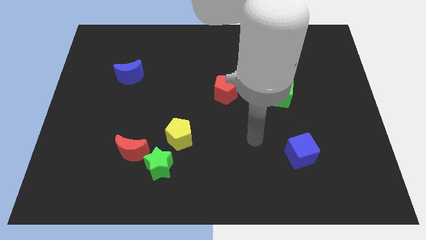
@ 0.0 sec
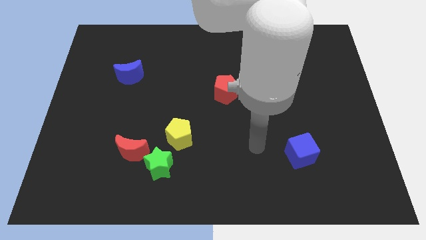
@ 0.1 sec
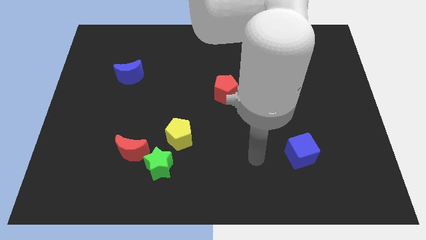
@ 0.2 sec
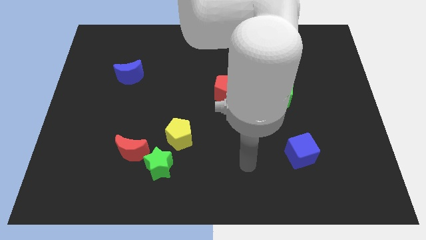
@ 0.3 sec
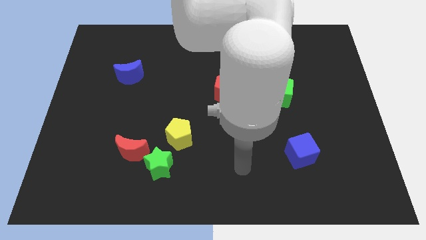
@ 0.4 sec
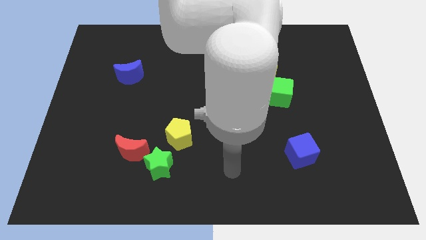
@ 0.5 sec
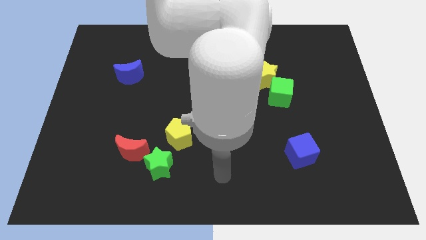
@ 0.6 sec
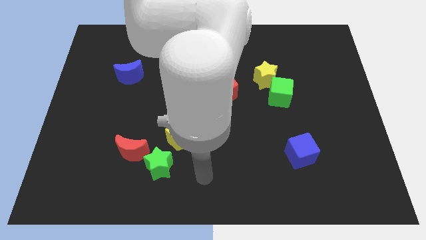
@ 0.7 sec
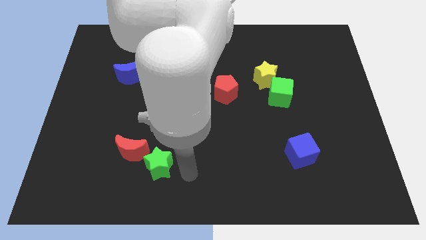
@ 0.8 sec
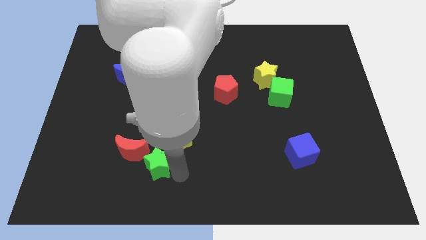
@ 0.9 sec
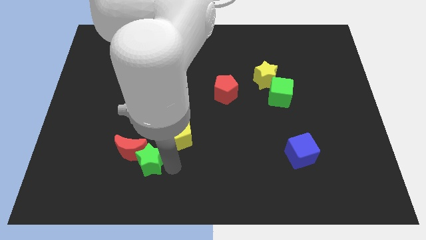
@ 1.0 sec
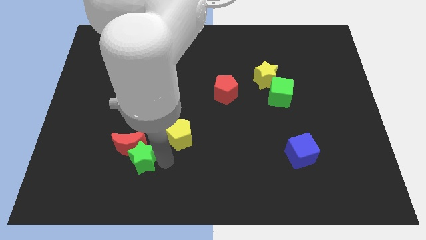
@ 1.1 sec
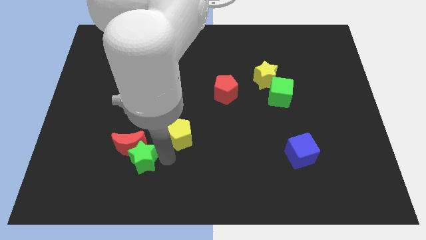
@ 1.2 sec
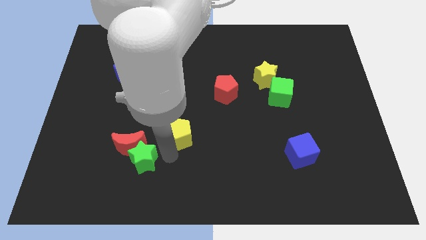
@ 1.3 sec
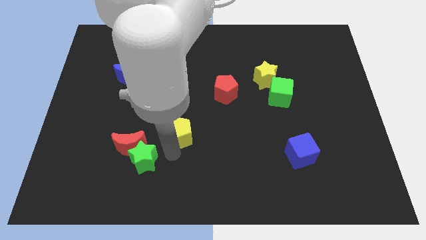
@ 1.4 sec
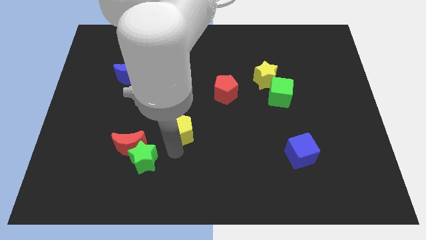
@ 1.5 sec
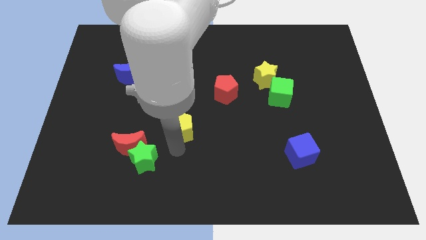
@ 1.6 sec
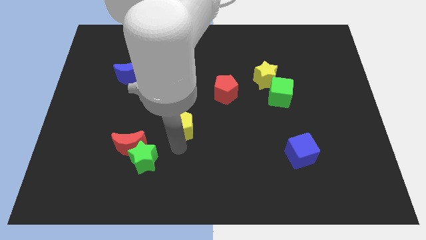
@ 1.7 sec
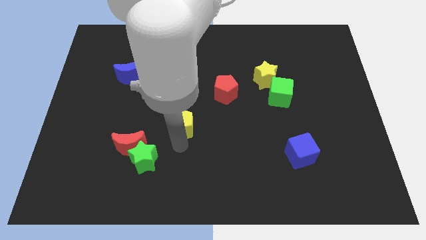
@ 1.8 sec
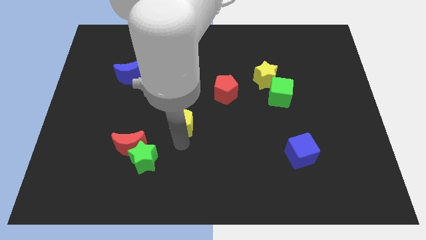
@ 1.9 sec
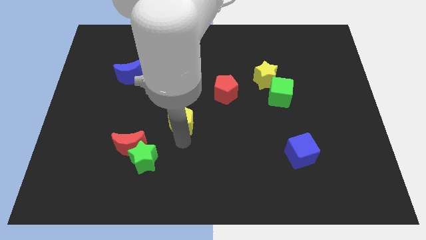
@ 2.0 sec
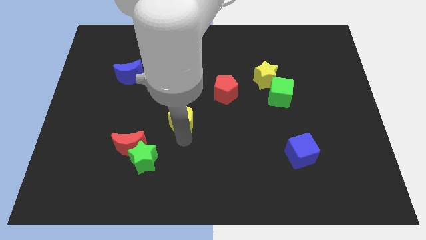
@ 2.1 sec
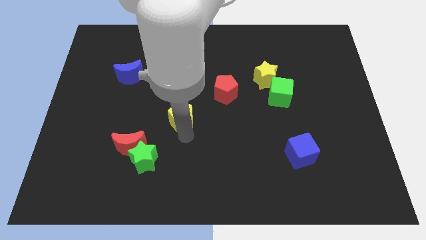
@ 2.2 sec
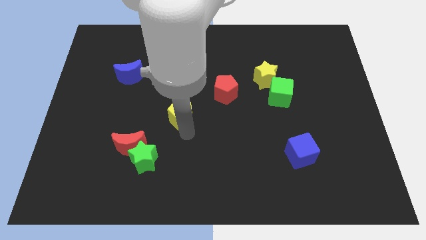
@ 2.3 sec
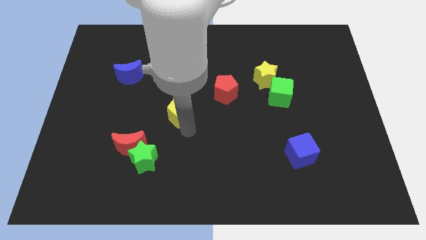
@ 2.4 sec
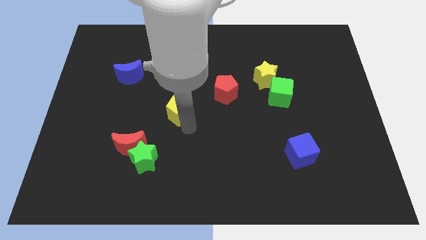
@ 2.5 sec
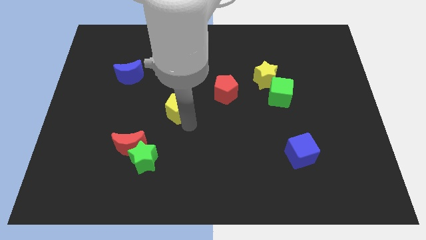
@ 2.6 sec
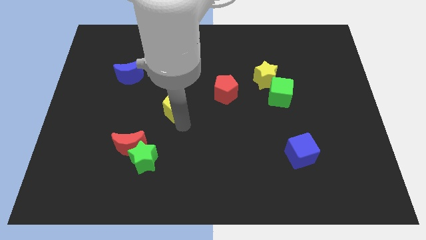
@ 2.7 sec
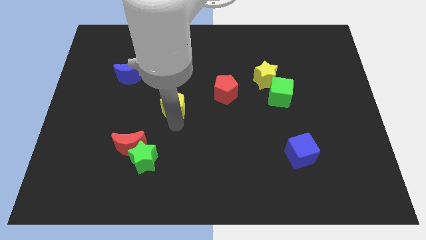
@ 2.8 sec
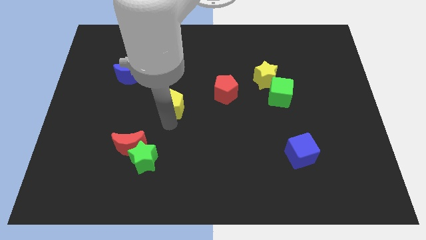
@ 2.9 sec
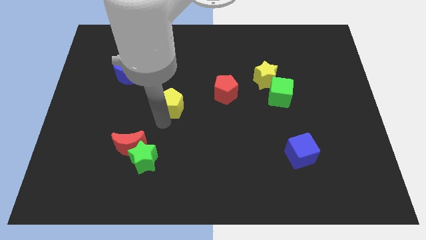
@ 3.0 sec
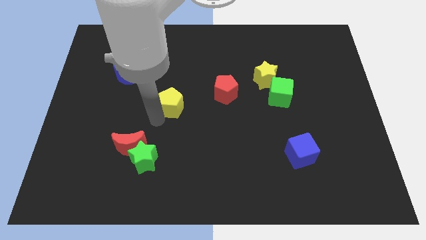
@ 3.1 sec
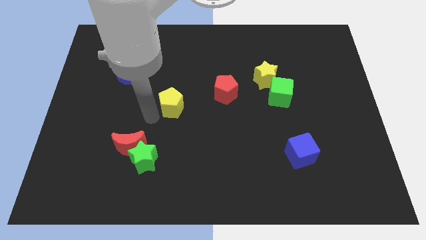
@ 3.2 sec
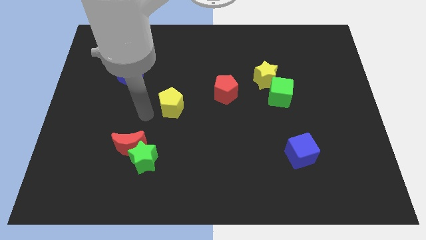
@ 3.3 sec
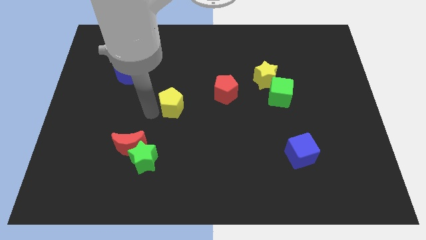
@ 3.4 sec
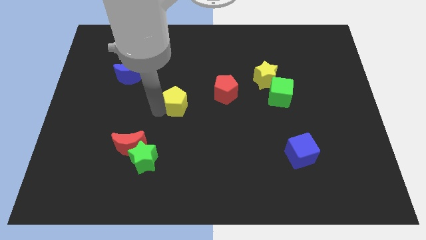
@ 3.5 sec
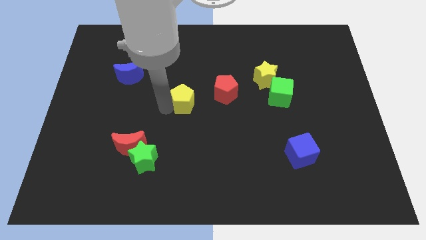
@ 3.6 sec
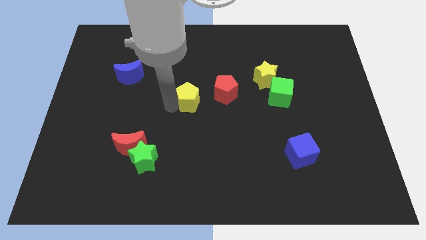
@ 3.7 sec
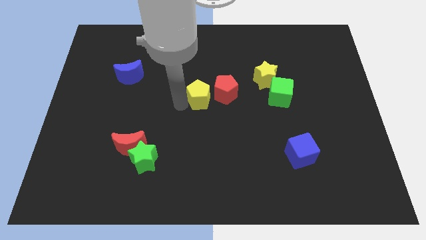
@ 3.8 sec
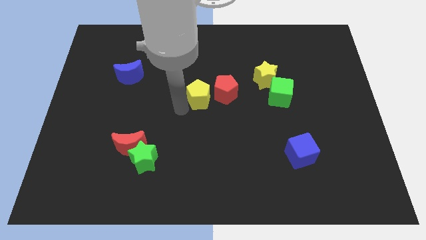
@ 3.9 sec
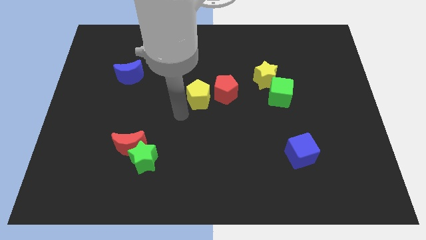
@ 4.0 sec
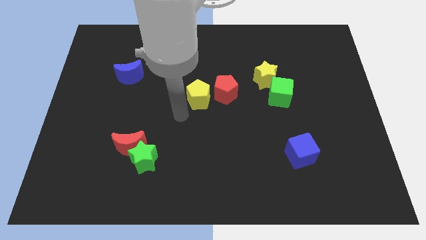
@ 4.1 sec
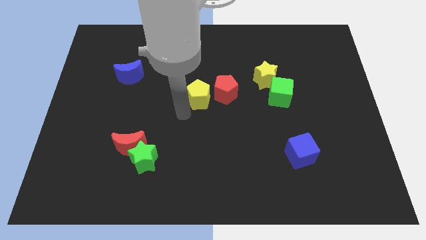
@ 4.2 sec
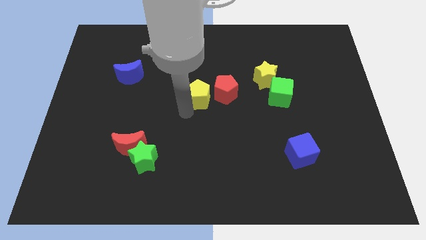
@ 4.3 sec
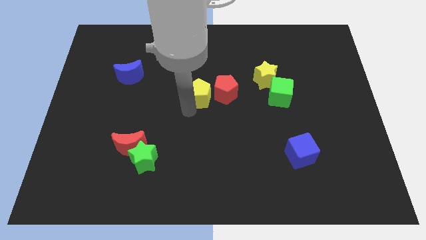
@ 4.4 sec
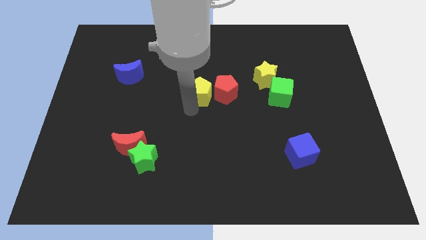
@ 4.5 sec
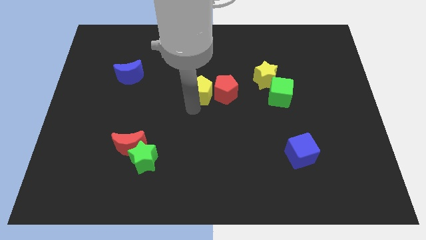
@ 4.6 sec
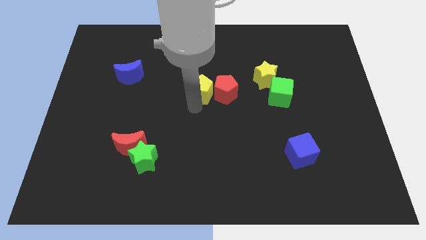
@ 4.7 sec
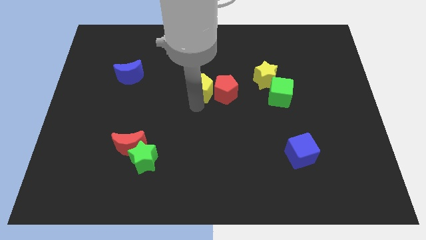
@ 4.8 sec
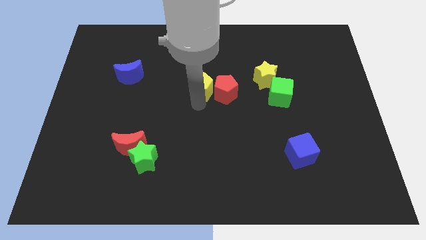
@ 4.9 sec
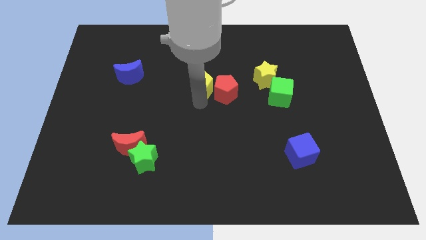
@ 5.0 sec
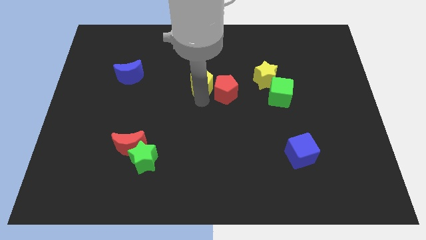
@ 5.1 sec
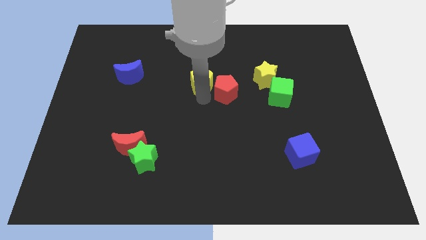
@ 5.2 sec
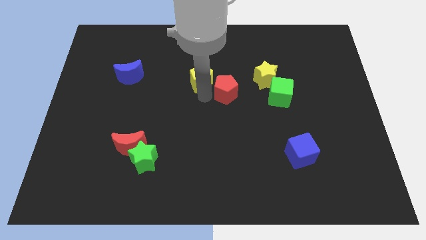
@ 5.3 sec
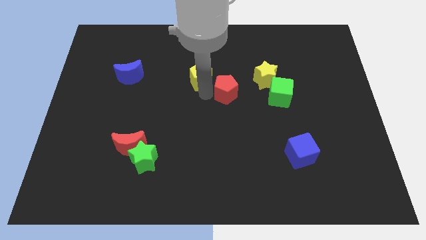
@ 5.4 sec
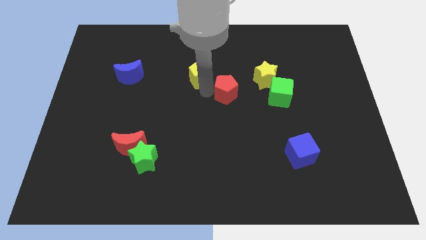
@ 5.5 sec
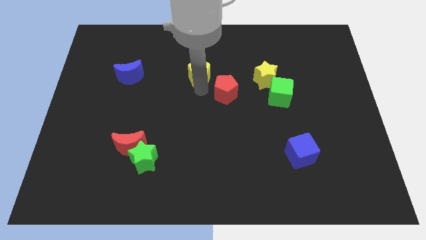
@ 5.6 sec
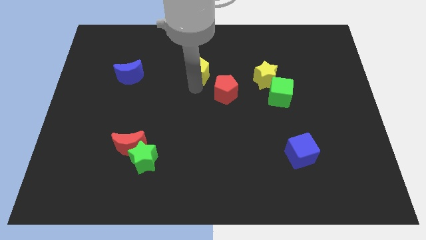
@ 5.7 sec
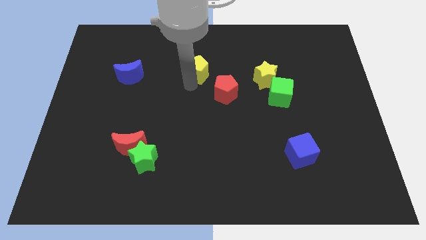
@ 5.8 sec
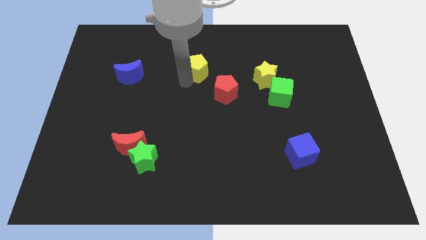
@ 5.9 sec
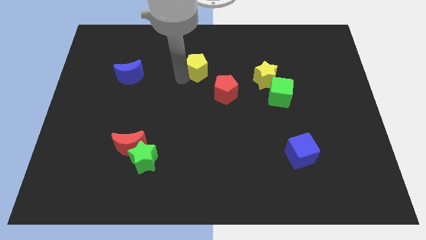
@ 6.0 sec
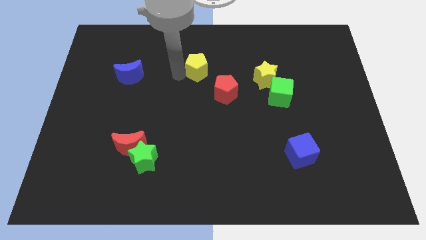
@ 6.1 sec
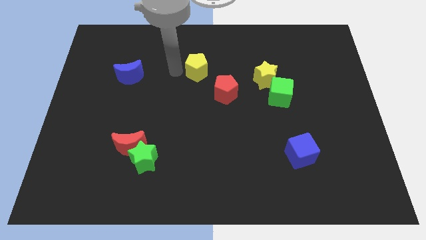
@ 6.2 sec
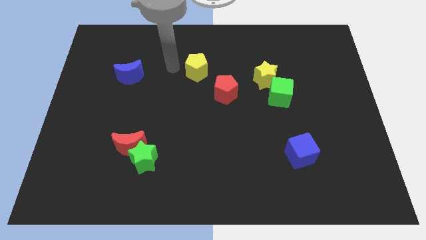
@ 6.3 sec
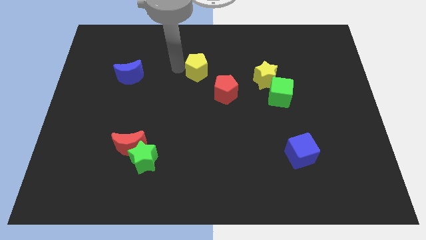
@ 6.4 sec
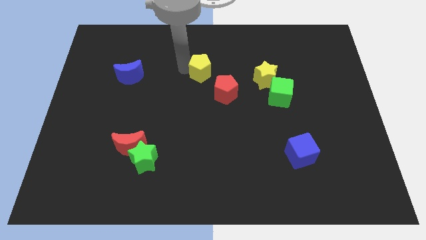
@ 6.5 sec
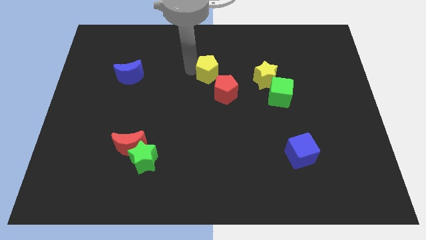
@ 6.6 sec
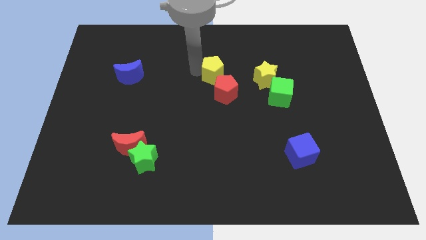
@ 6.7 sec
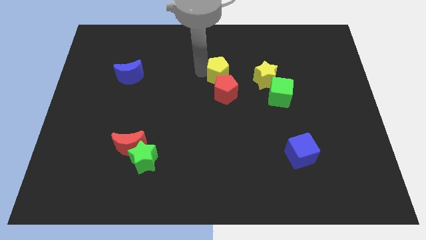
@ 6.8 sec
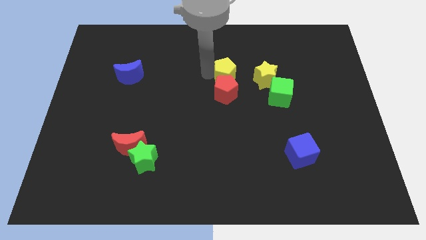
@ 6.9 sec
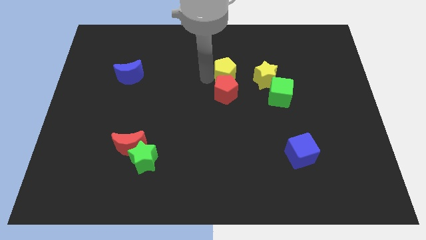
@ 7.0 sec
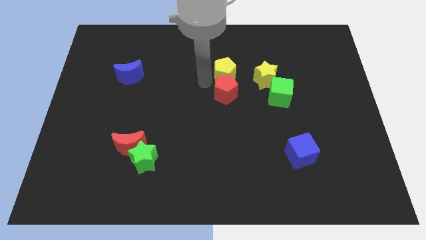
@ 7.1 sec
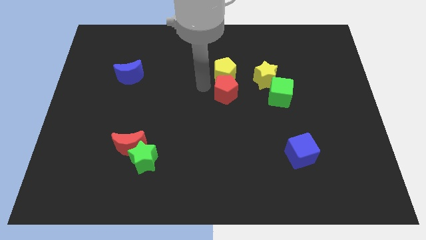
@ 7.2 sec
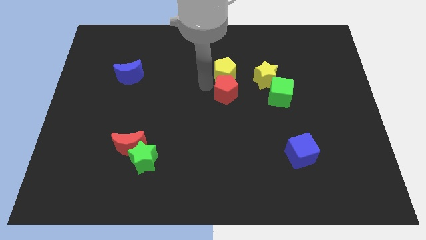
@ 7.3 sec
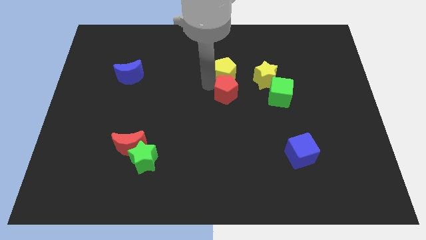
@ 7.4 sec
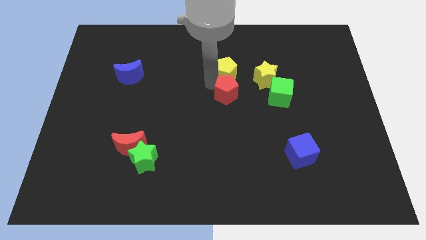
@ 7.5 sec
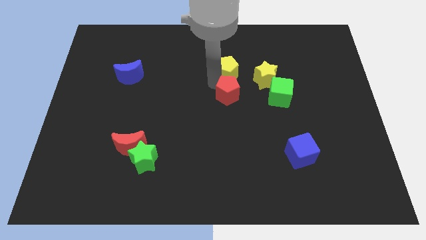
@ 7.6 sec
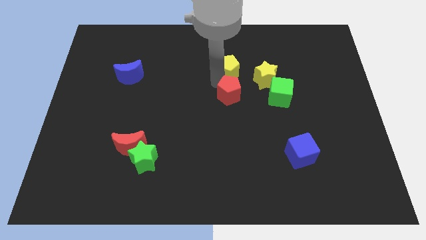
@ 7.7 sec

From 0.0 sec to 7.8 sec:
put the yellow pentagon to the top left side of the yellow star
